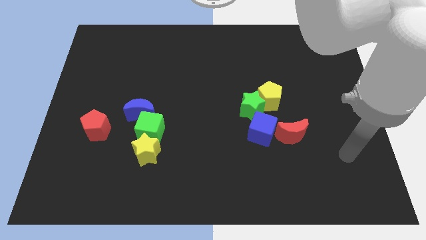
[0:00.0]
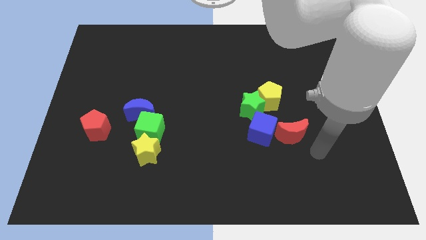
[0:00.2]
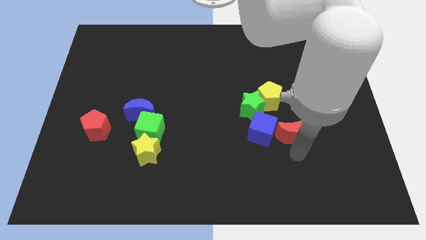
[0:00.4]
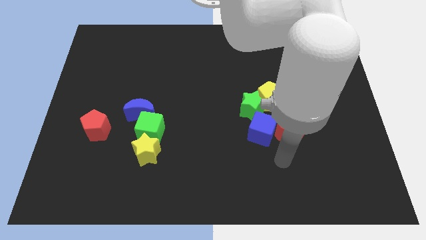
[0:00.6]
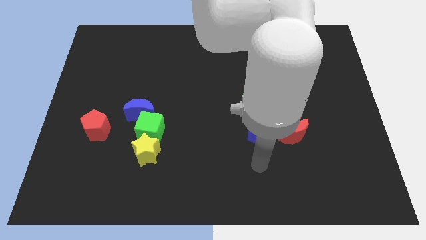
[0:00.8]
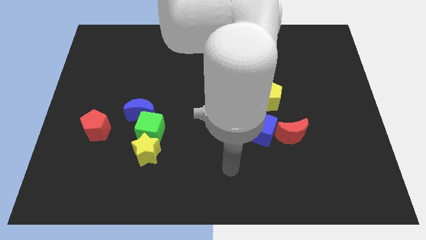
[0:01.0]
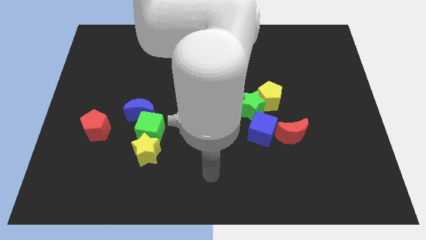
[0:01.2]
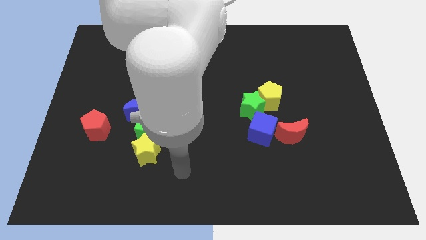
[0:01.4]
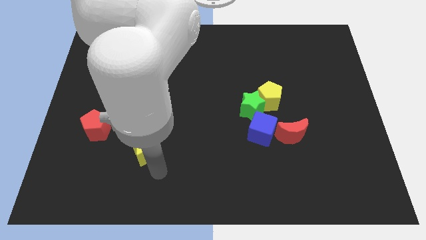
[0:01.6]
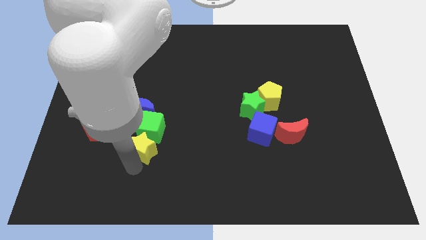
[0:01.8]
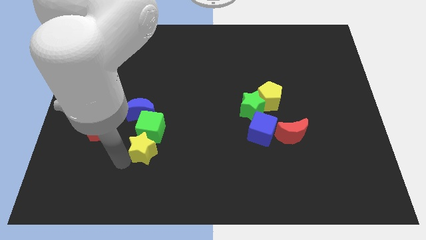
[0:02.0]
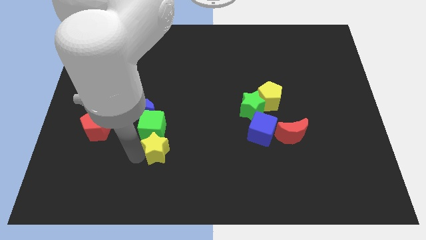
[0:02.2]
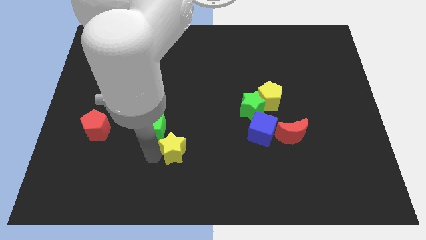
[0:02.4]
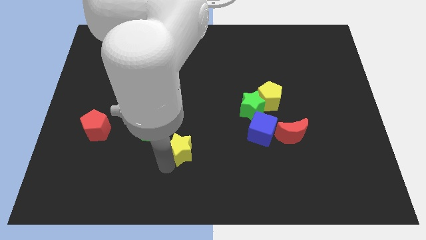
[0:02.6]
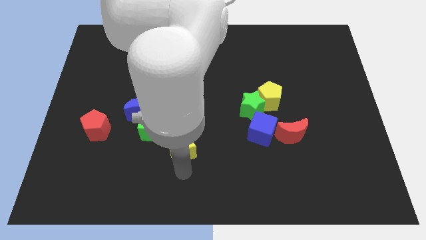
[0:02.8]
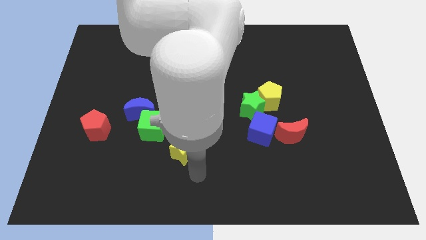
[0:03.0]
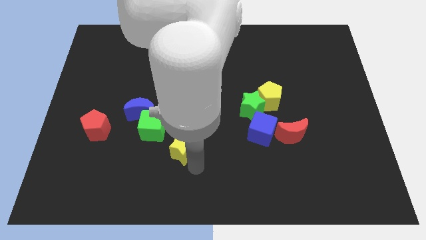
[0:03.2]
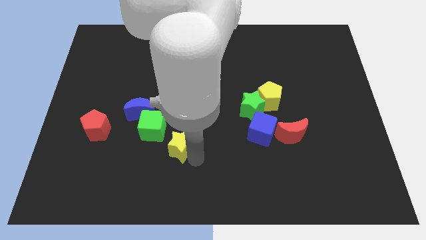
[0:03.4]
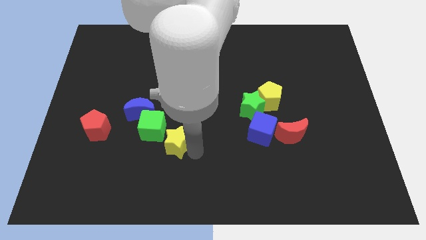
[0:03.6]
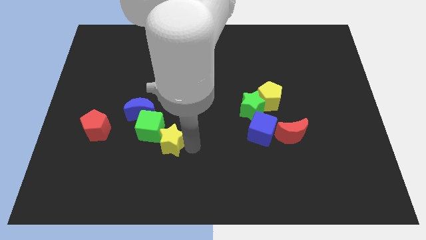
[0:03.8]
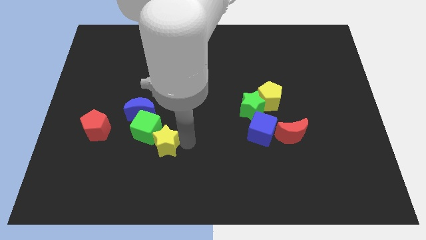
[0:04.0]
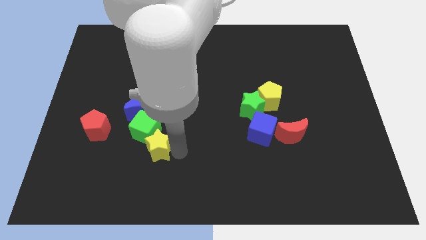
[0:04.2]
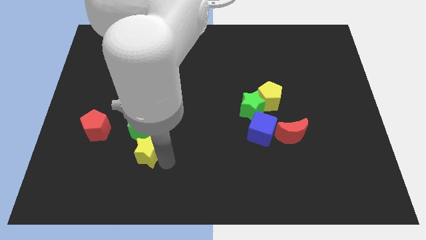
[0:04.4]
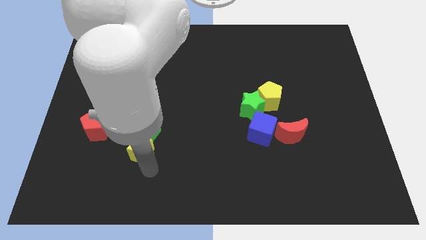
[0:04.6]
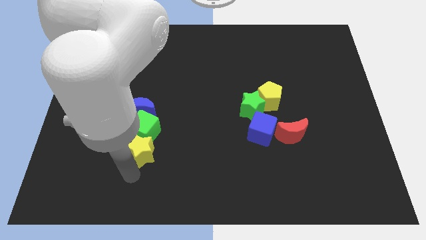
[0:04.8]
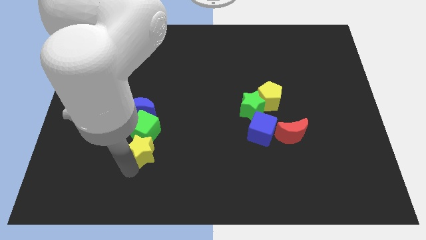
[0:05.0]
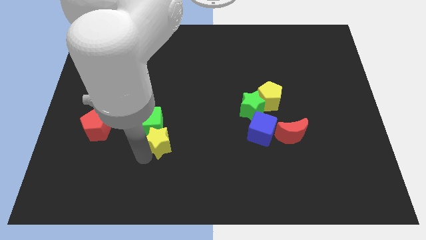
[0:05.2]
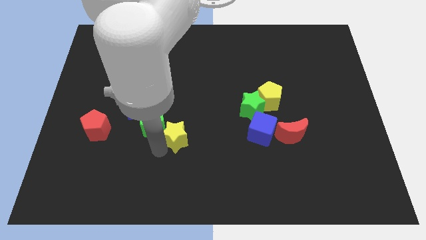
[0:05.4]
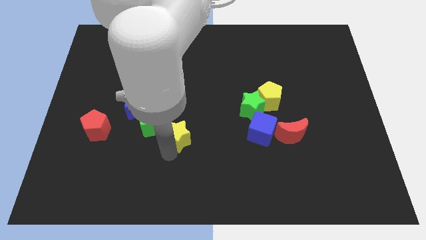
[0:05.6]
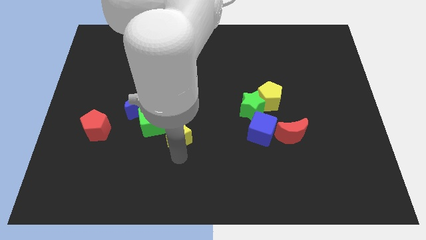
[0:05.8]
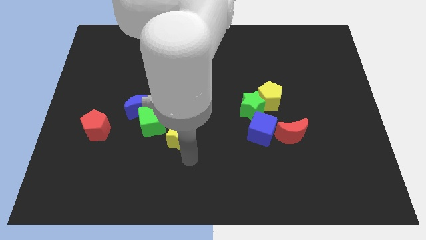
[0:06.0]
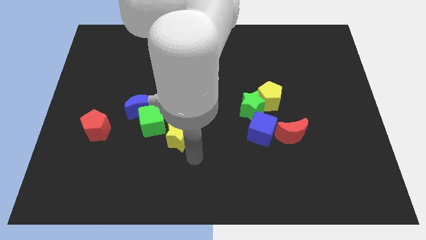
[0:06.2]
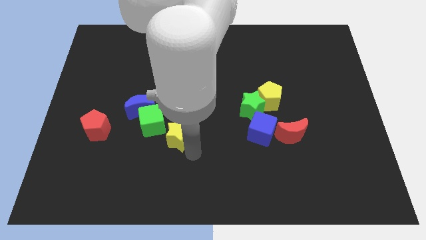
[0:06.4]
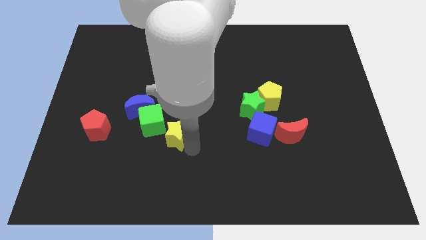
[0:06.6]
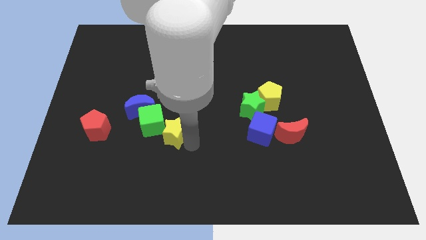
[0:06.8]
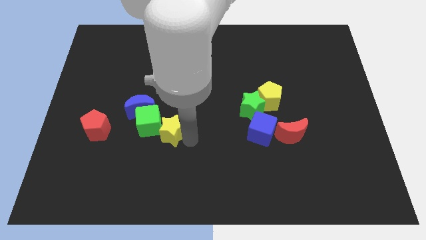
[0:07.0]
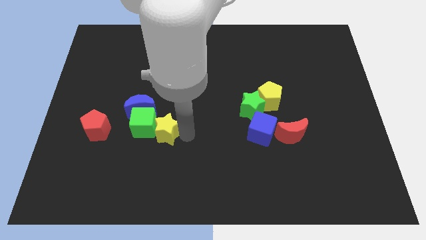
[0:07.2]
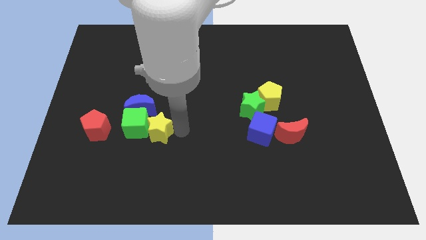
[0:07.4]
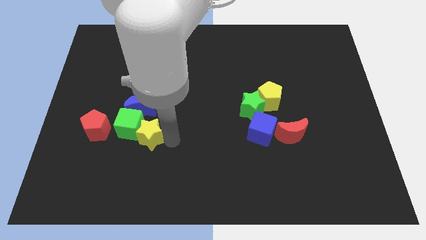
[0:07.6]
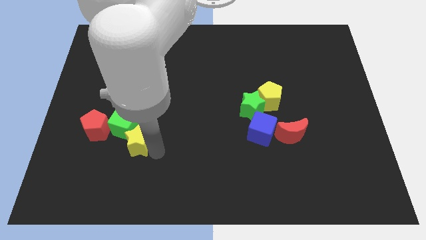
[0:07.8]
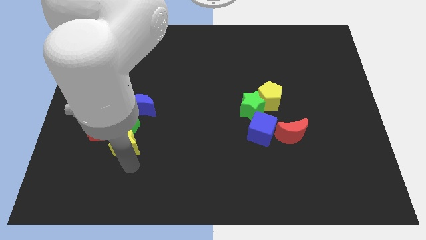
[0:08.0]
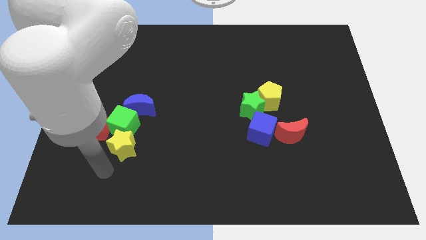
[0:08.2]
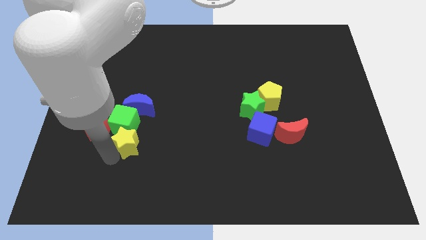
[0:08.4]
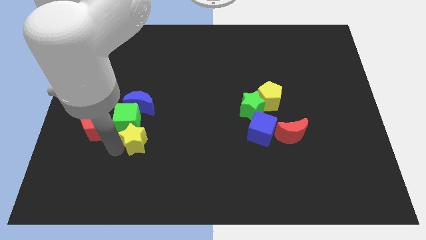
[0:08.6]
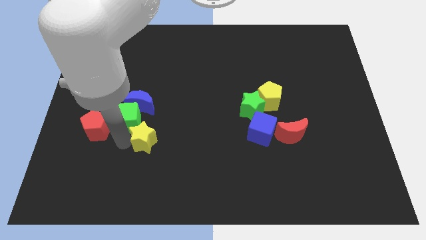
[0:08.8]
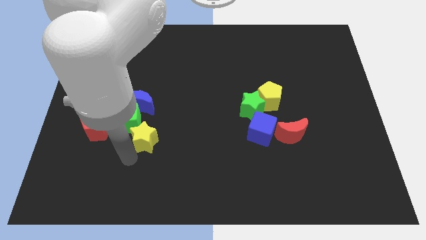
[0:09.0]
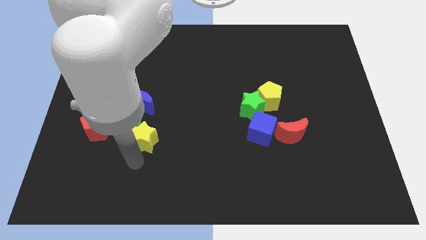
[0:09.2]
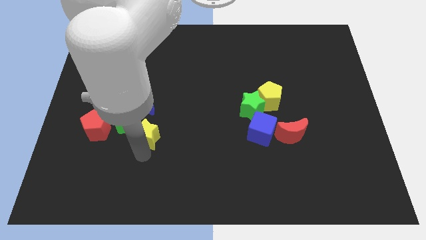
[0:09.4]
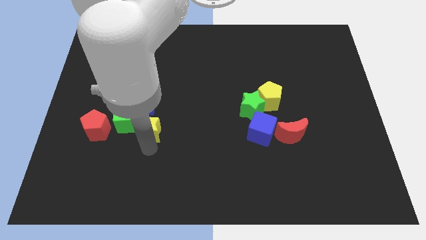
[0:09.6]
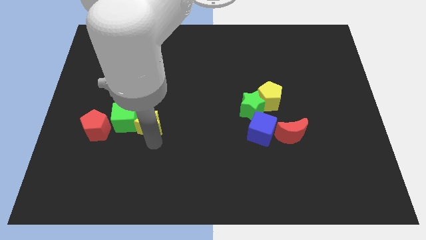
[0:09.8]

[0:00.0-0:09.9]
slightly slide the yellow star upwards

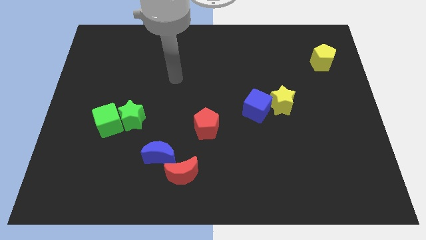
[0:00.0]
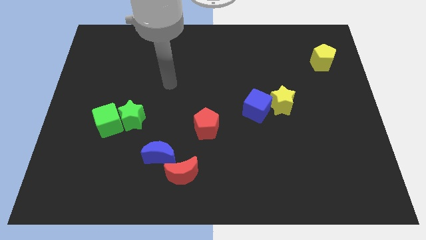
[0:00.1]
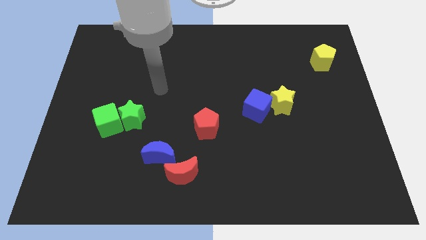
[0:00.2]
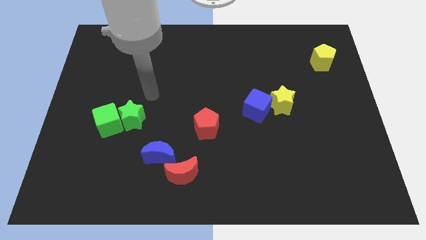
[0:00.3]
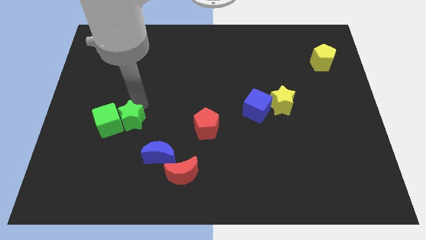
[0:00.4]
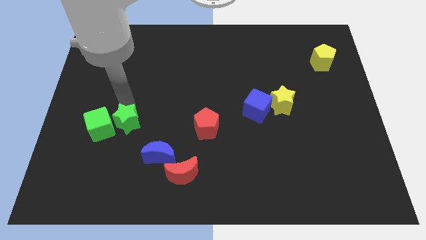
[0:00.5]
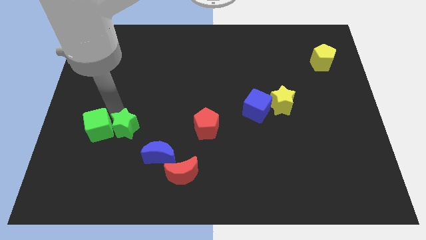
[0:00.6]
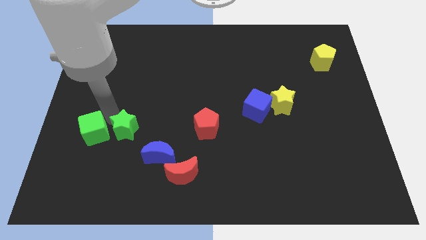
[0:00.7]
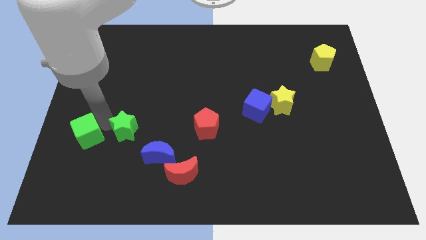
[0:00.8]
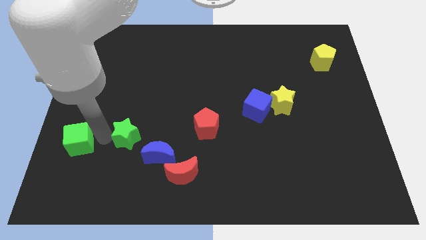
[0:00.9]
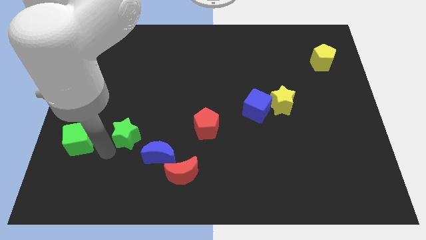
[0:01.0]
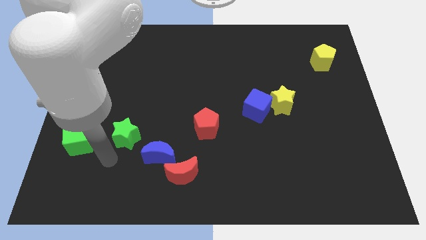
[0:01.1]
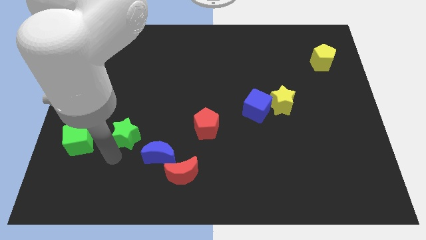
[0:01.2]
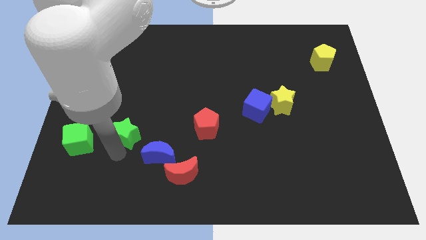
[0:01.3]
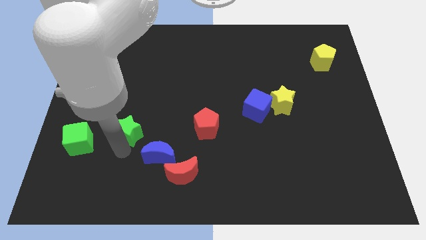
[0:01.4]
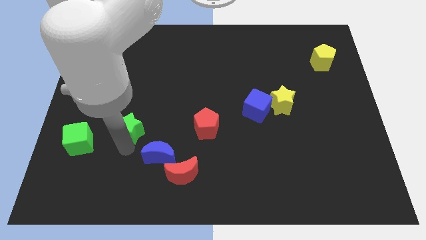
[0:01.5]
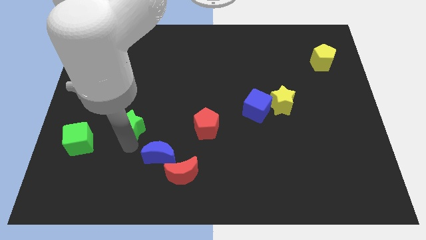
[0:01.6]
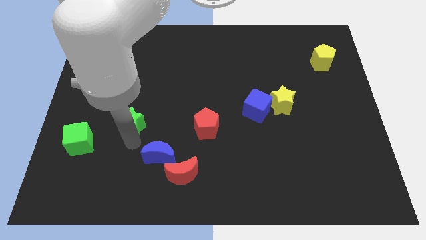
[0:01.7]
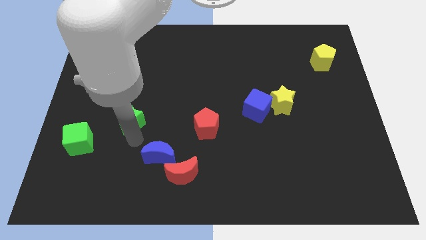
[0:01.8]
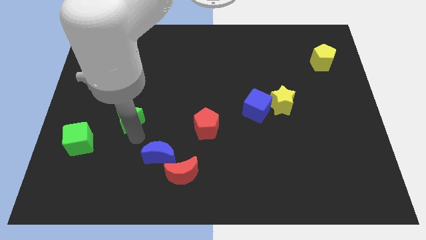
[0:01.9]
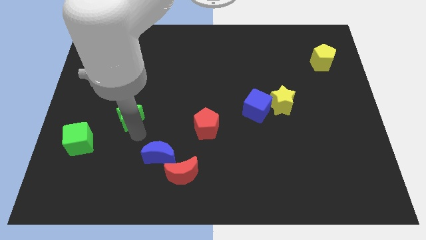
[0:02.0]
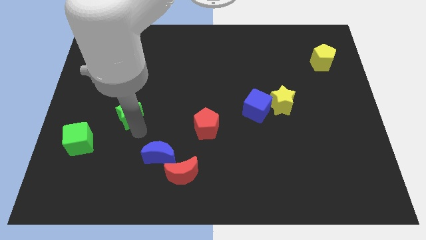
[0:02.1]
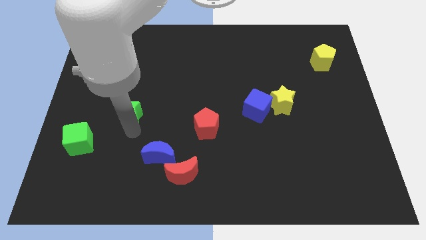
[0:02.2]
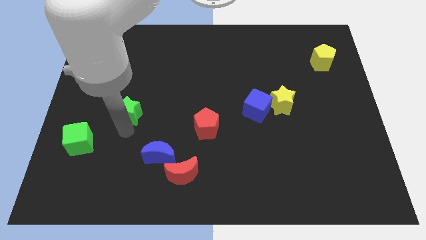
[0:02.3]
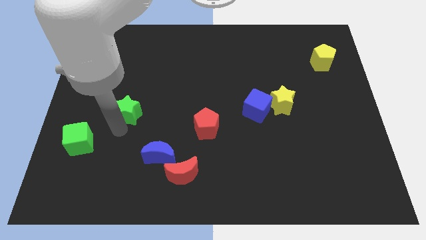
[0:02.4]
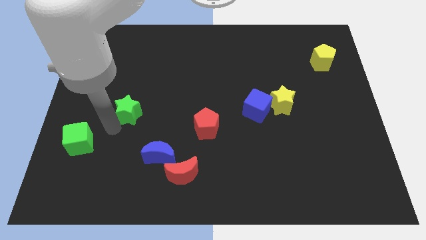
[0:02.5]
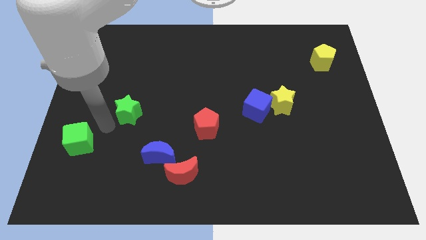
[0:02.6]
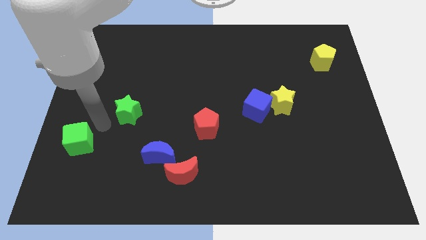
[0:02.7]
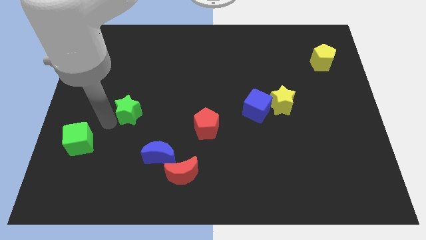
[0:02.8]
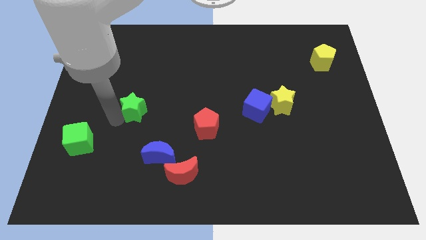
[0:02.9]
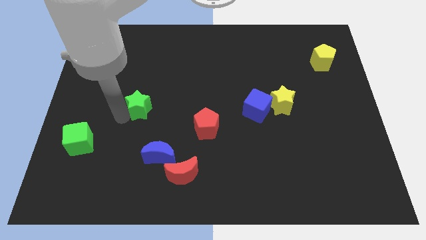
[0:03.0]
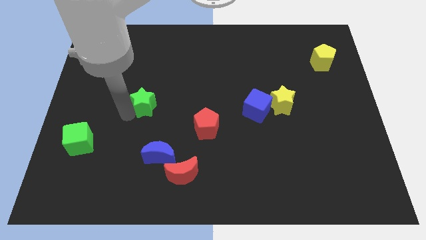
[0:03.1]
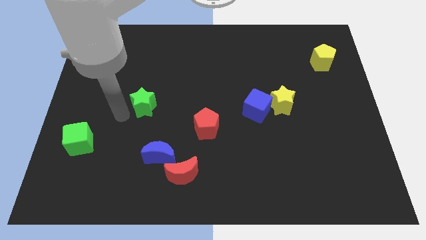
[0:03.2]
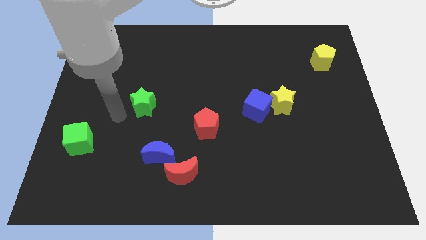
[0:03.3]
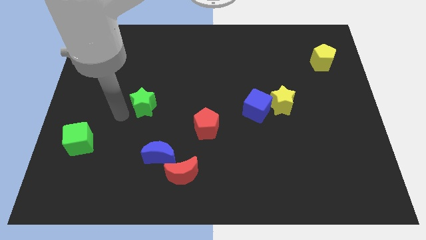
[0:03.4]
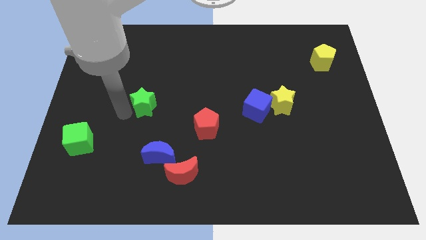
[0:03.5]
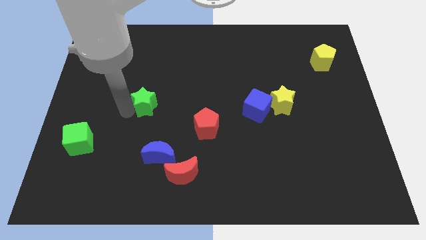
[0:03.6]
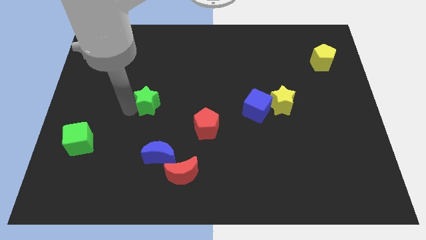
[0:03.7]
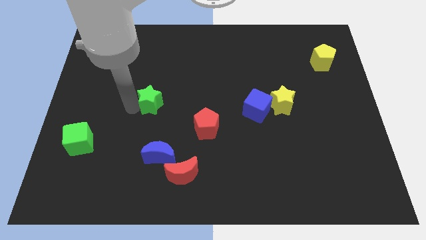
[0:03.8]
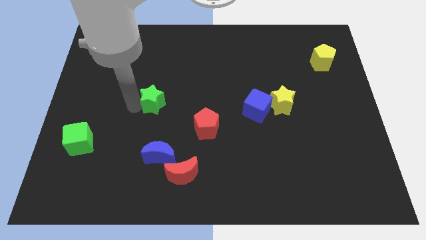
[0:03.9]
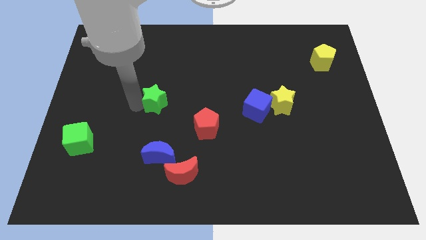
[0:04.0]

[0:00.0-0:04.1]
move the green star a bit up and then to the right
